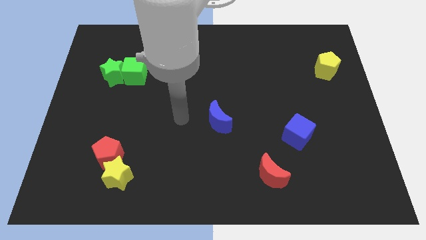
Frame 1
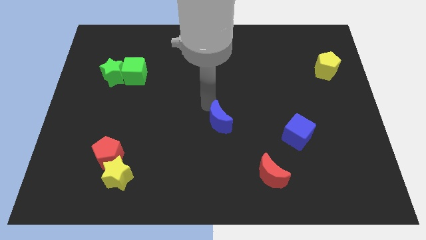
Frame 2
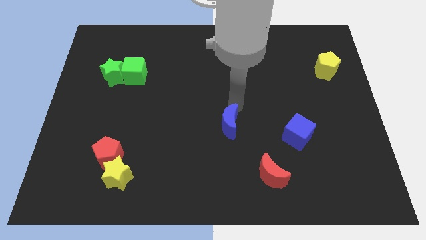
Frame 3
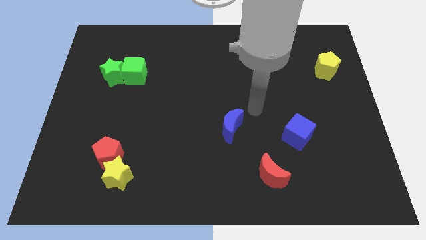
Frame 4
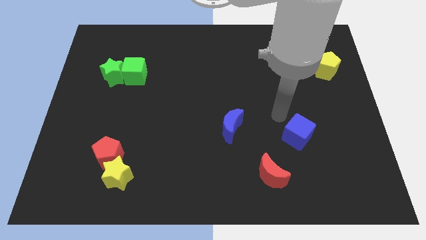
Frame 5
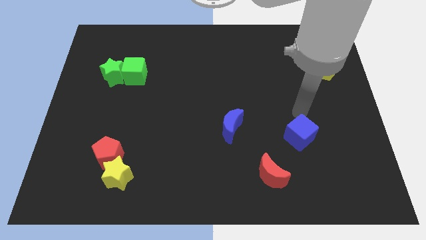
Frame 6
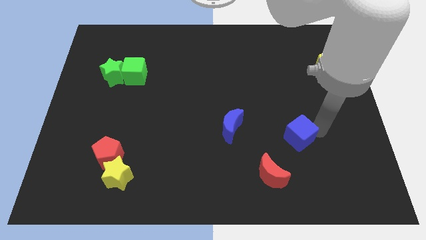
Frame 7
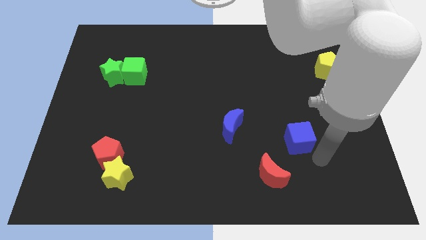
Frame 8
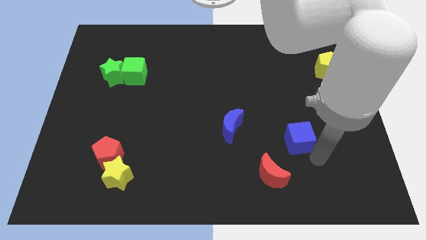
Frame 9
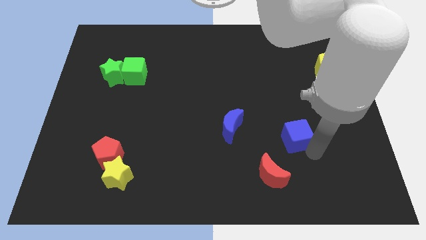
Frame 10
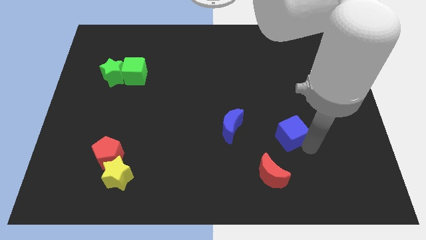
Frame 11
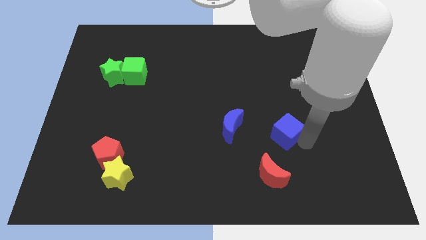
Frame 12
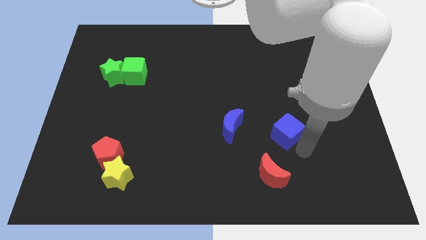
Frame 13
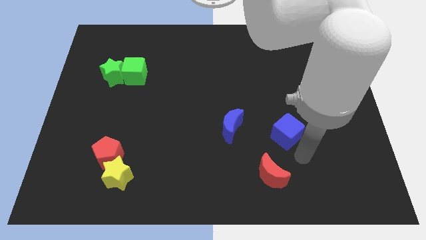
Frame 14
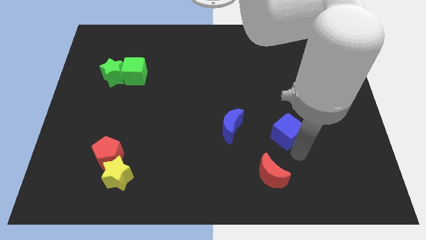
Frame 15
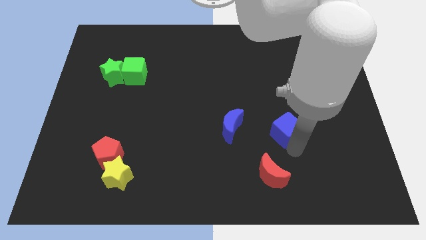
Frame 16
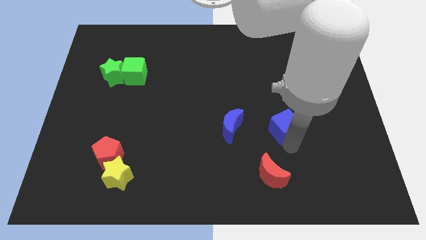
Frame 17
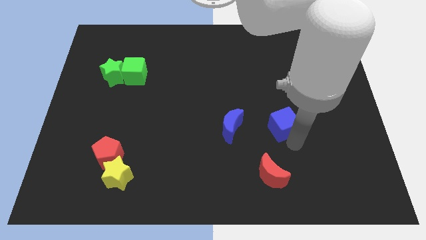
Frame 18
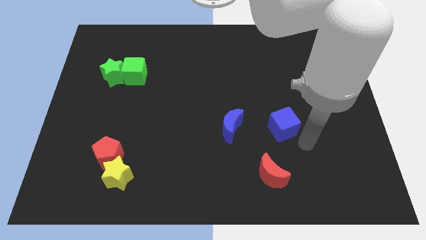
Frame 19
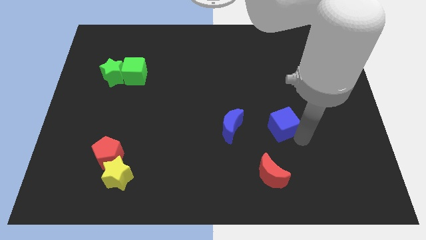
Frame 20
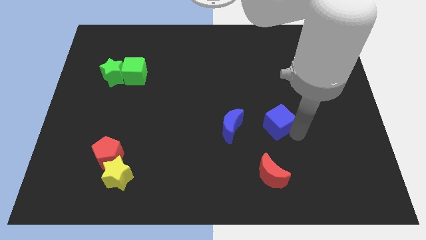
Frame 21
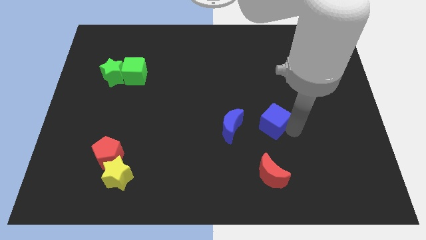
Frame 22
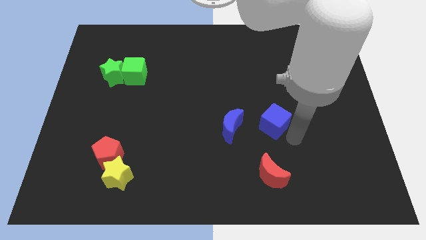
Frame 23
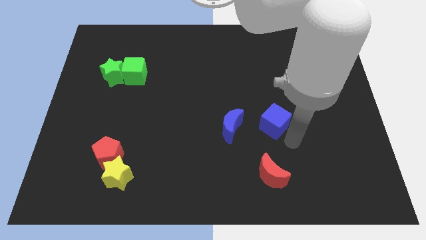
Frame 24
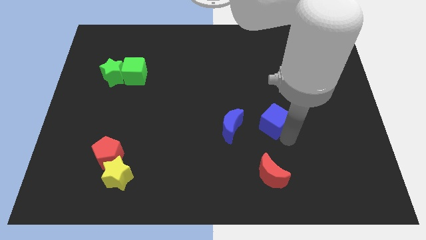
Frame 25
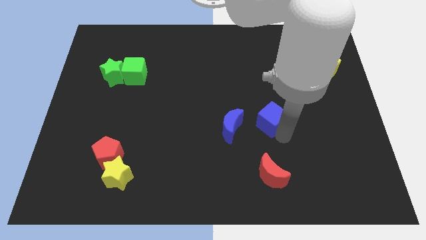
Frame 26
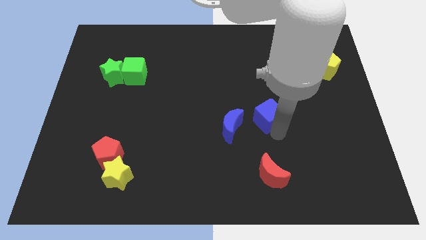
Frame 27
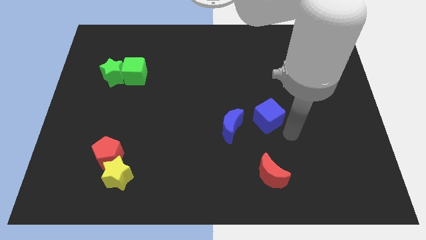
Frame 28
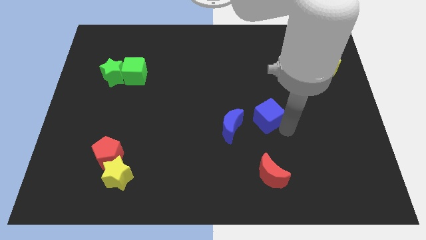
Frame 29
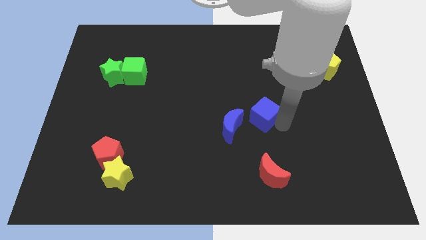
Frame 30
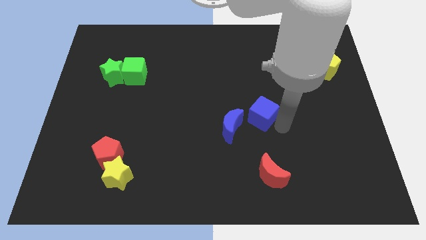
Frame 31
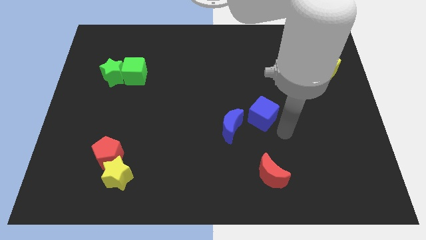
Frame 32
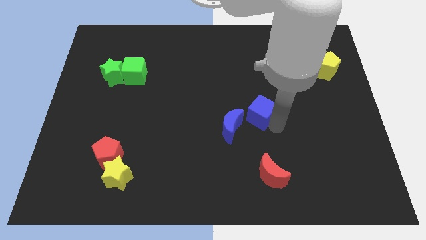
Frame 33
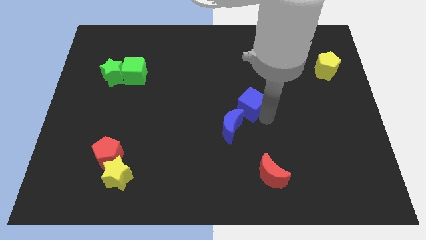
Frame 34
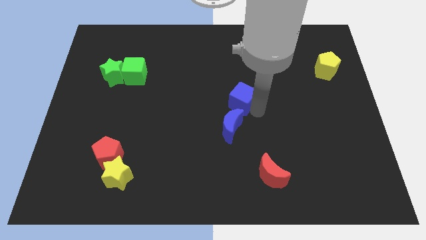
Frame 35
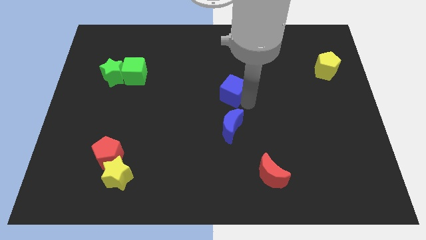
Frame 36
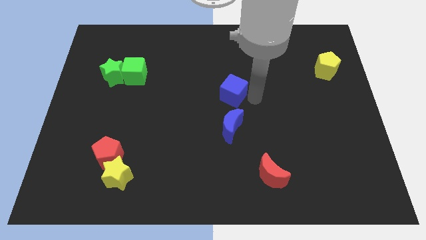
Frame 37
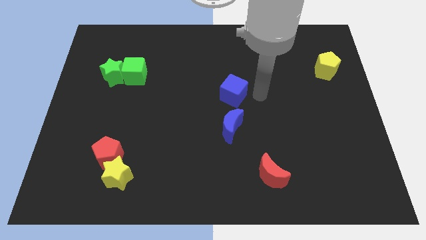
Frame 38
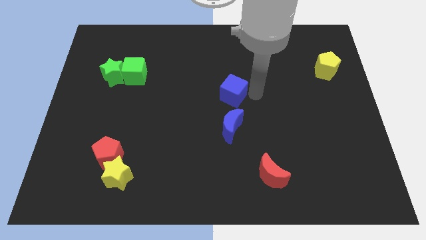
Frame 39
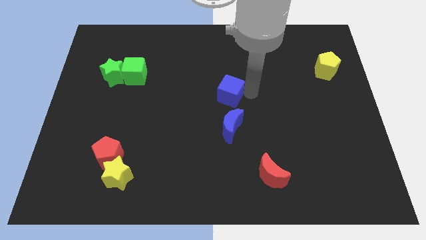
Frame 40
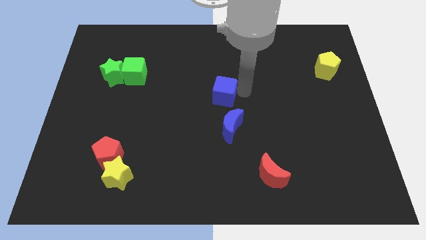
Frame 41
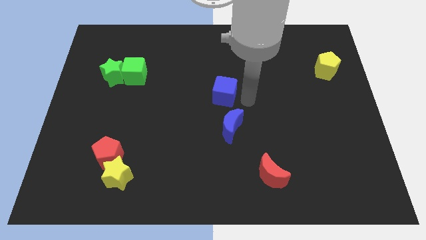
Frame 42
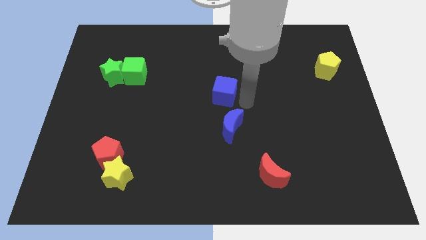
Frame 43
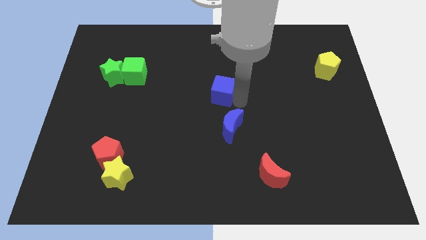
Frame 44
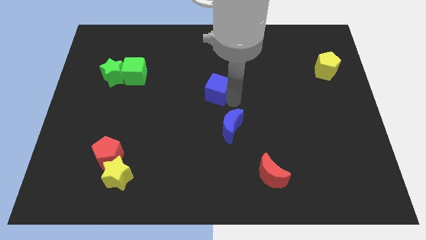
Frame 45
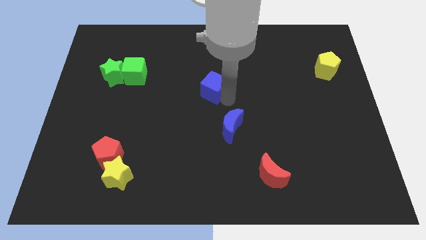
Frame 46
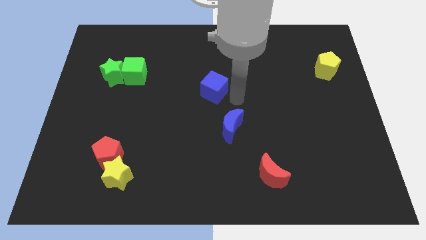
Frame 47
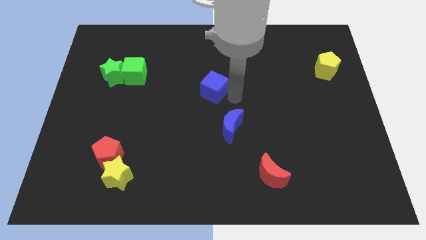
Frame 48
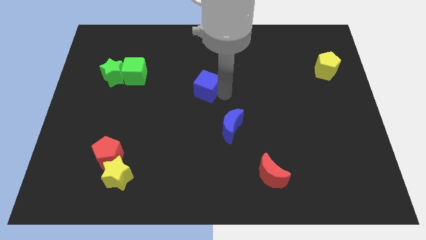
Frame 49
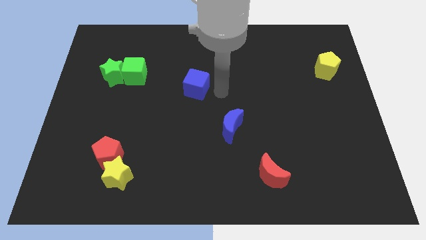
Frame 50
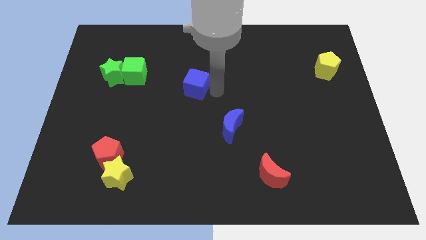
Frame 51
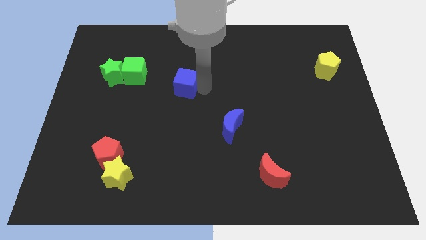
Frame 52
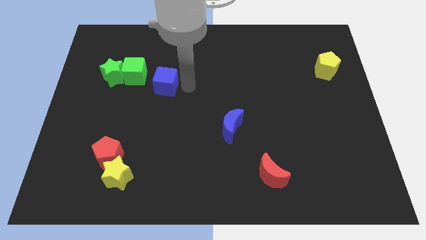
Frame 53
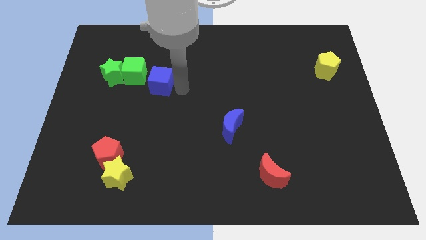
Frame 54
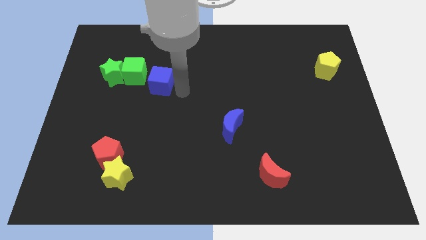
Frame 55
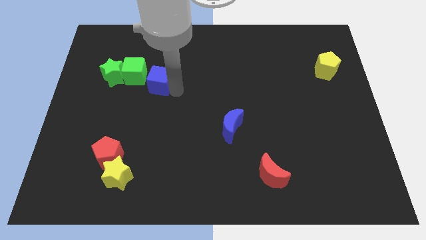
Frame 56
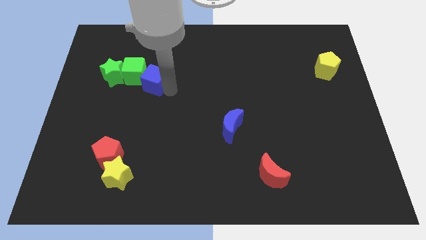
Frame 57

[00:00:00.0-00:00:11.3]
slide the blue cube towards the green cube

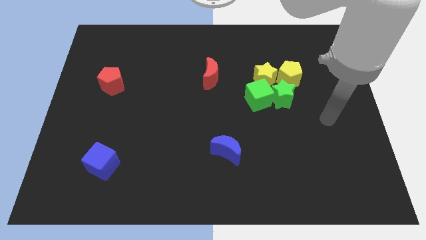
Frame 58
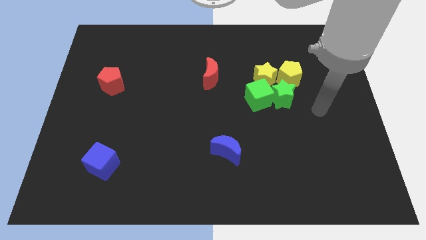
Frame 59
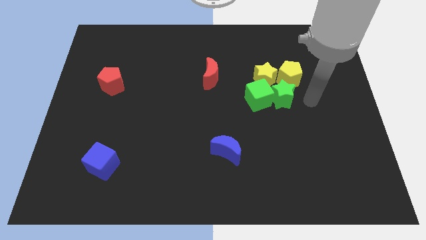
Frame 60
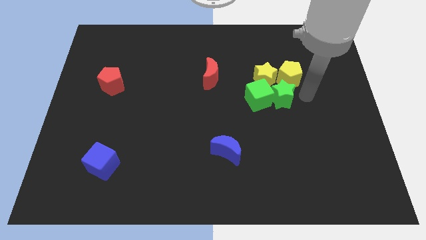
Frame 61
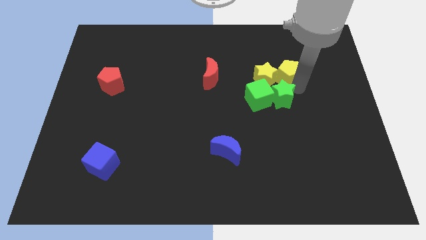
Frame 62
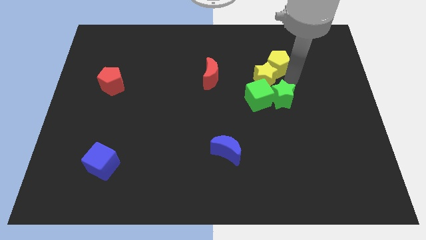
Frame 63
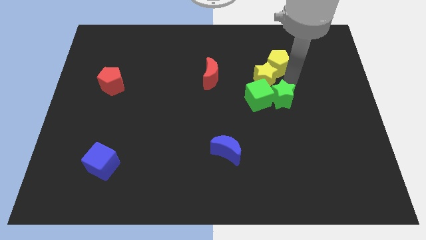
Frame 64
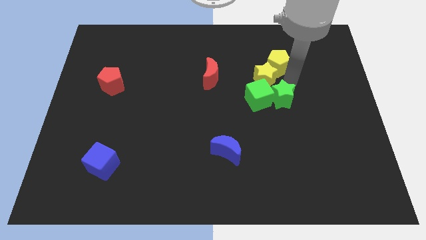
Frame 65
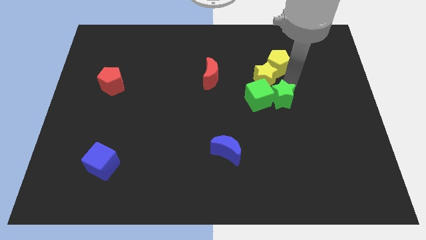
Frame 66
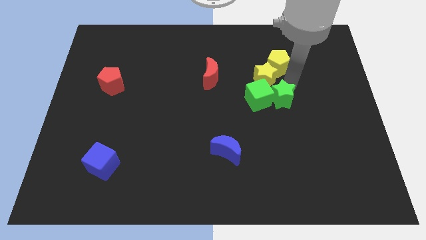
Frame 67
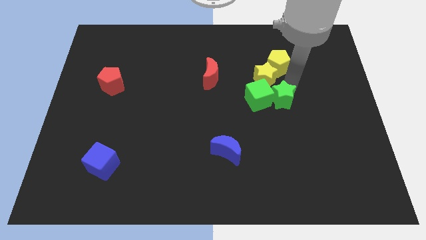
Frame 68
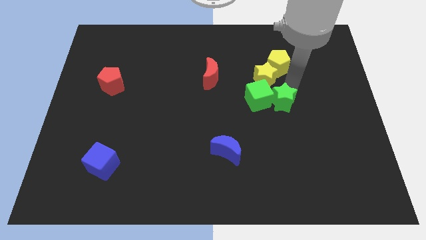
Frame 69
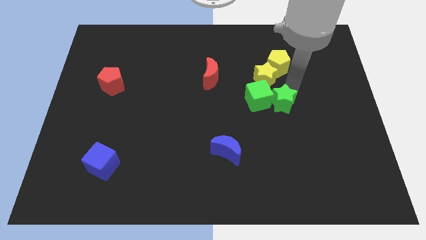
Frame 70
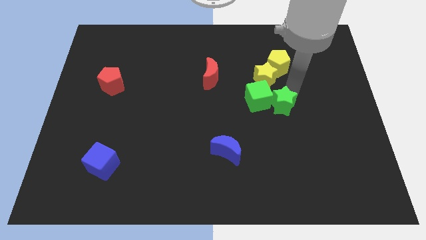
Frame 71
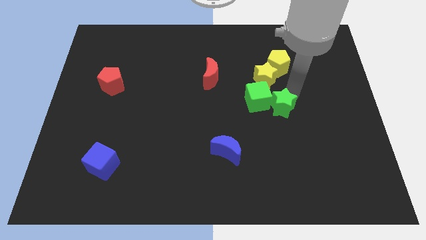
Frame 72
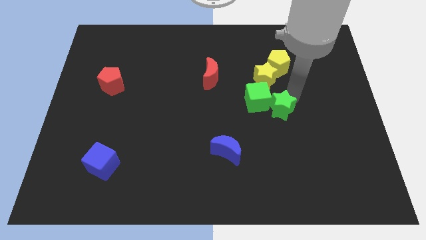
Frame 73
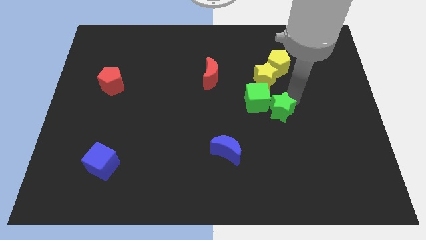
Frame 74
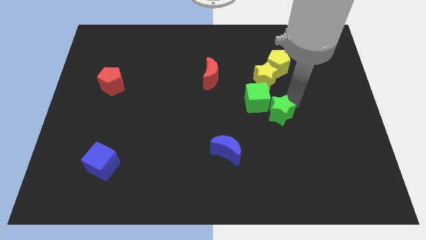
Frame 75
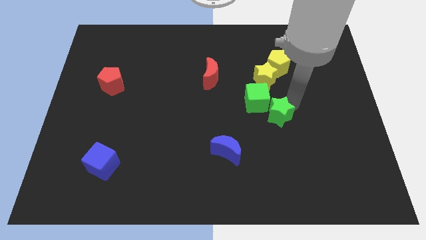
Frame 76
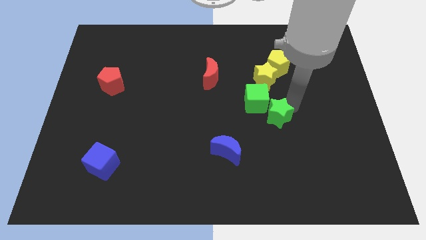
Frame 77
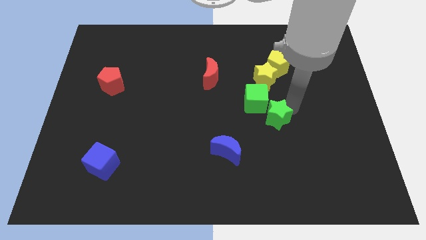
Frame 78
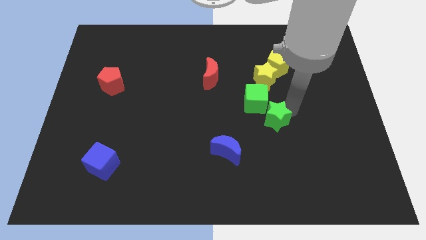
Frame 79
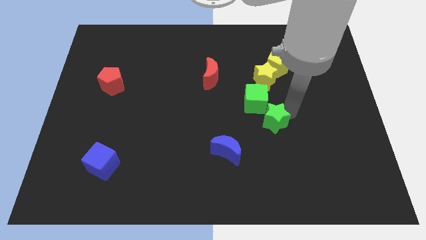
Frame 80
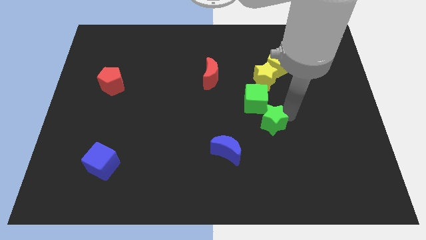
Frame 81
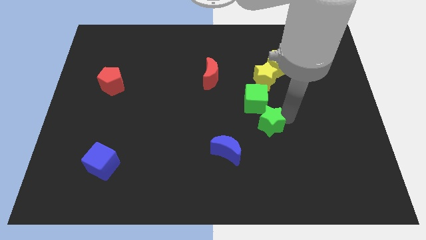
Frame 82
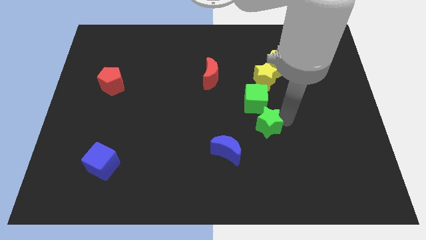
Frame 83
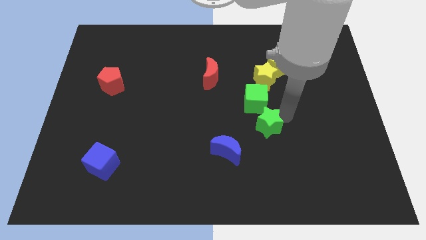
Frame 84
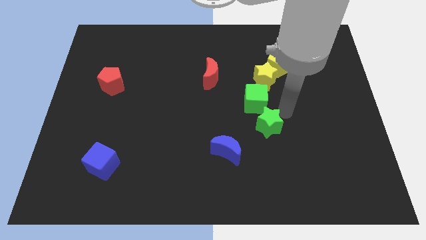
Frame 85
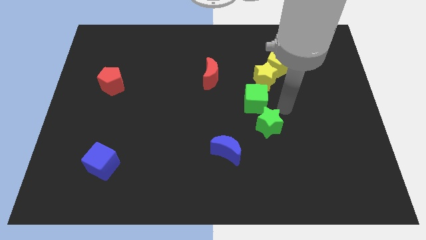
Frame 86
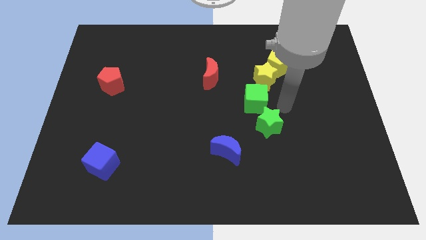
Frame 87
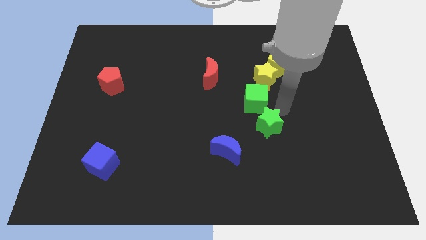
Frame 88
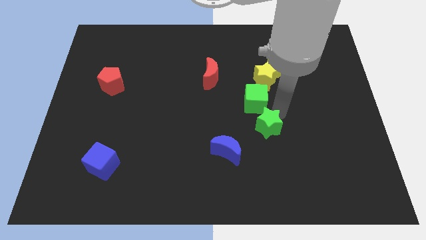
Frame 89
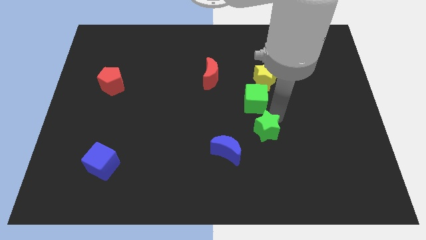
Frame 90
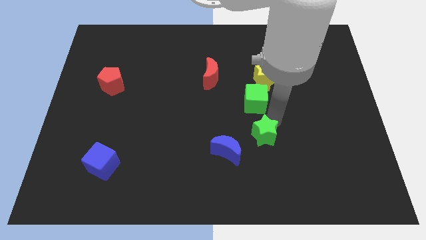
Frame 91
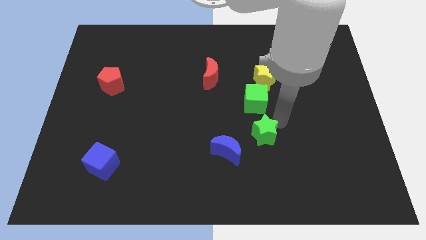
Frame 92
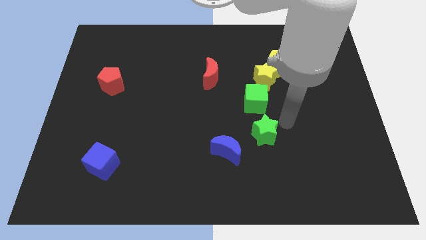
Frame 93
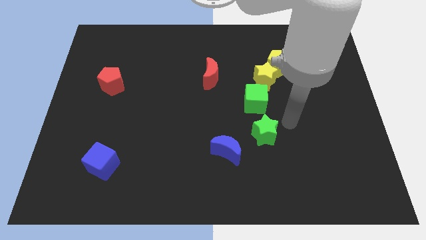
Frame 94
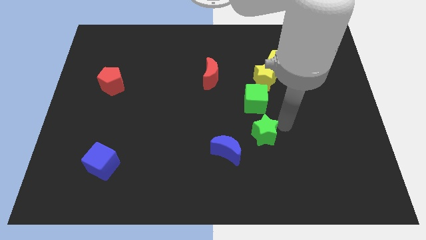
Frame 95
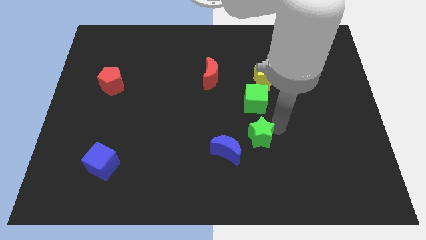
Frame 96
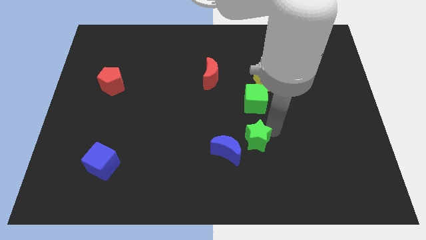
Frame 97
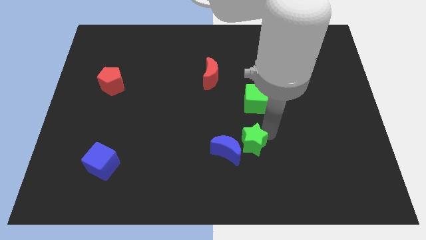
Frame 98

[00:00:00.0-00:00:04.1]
slide the green star towards the blue moon
